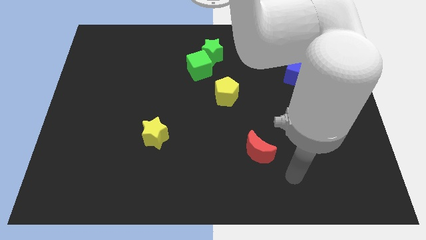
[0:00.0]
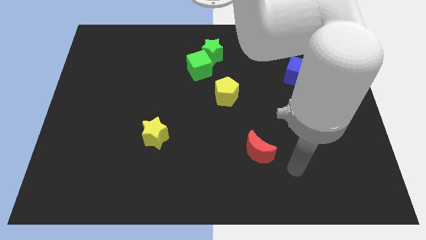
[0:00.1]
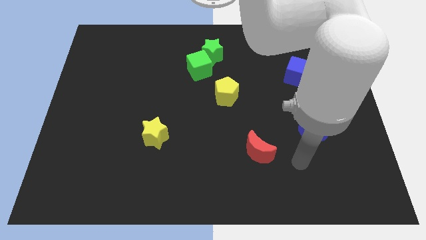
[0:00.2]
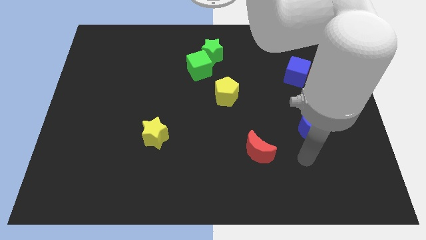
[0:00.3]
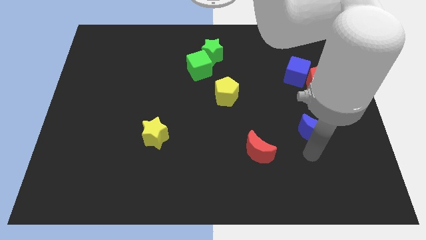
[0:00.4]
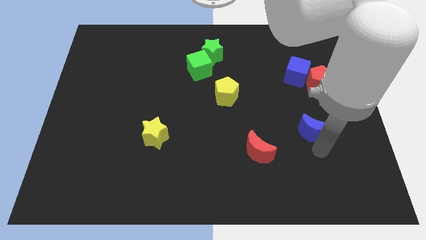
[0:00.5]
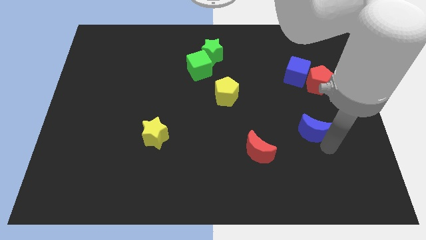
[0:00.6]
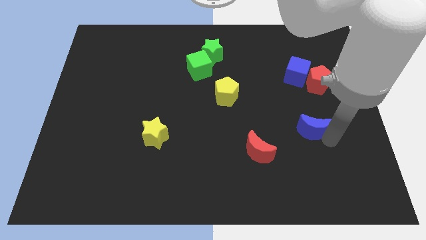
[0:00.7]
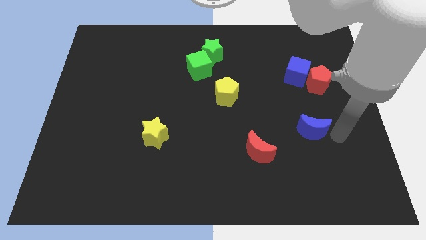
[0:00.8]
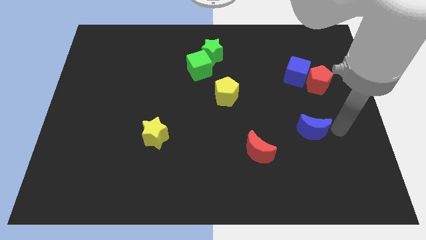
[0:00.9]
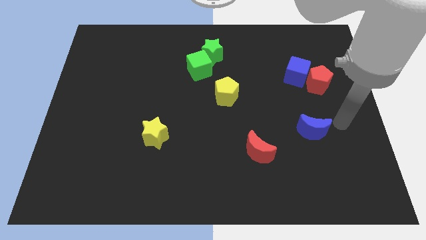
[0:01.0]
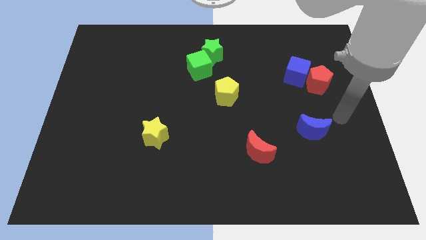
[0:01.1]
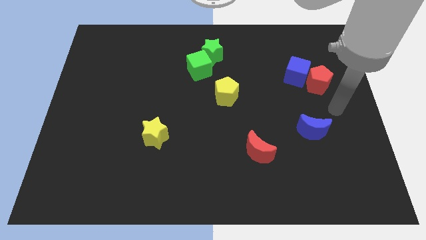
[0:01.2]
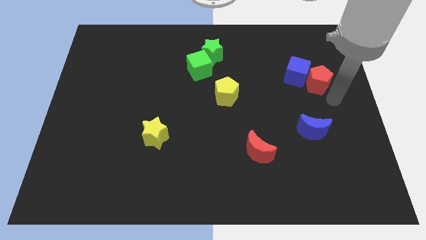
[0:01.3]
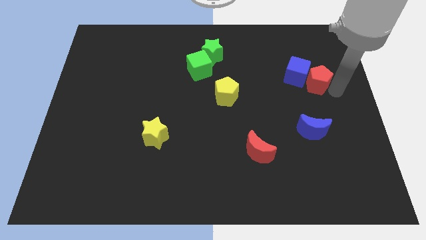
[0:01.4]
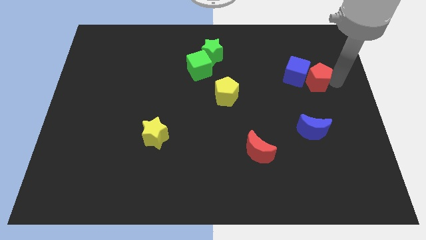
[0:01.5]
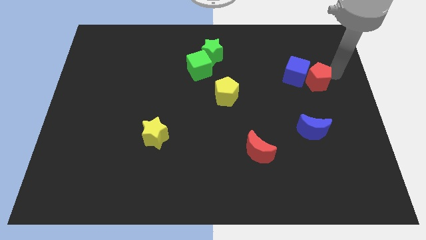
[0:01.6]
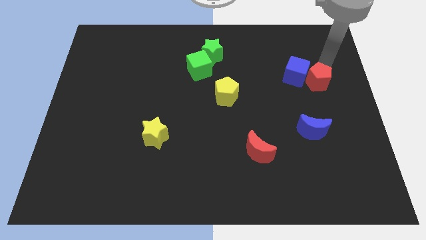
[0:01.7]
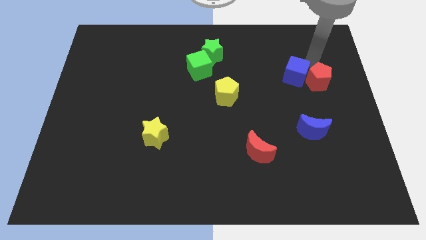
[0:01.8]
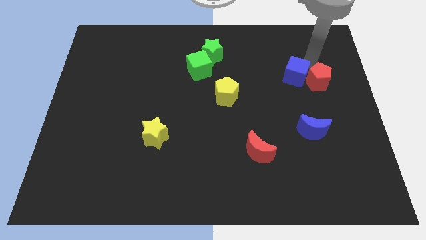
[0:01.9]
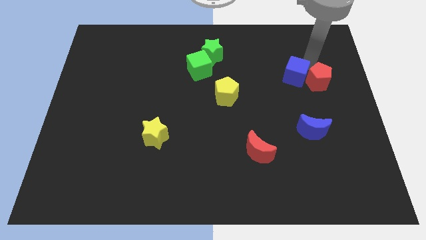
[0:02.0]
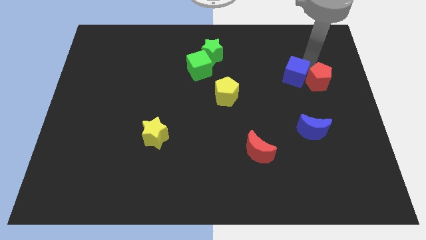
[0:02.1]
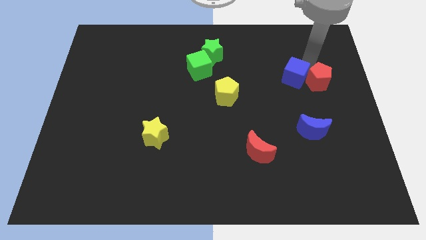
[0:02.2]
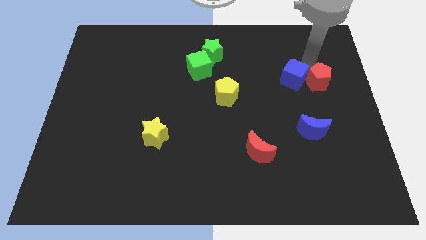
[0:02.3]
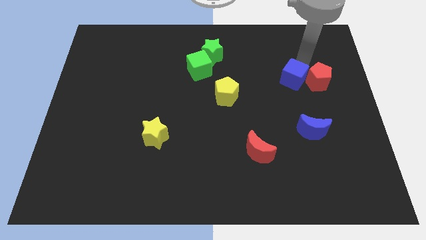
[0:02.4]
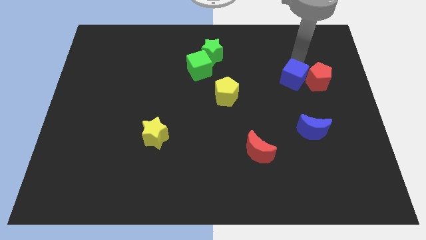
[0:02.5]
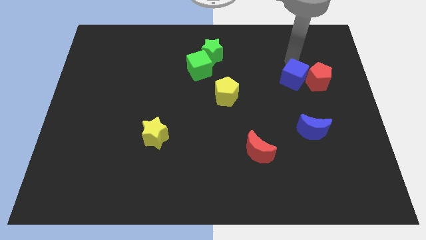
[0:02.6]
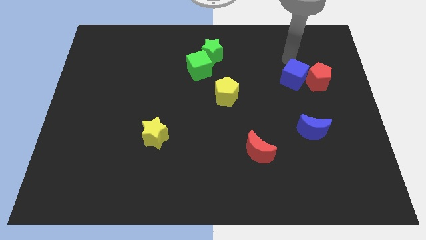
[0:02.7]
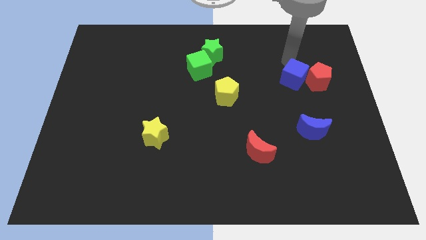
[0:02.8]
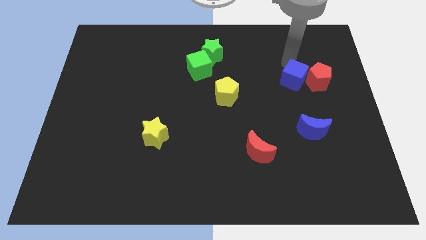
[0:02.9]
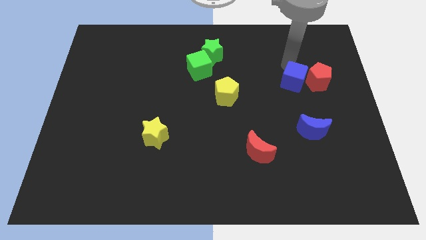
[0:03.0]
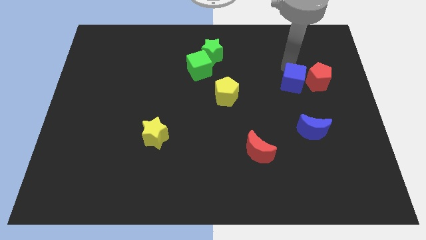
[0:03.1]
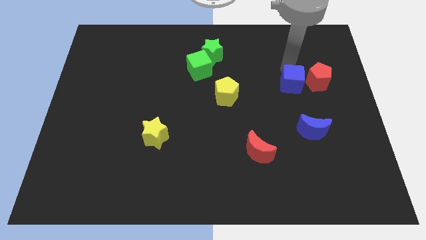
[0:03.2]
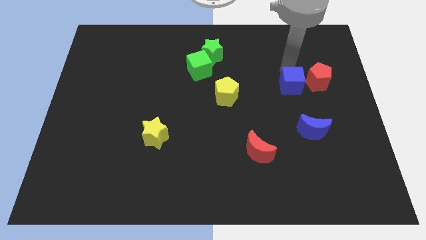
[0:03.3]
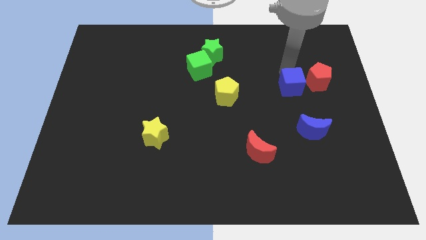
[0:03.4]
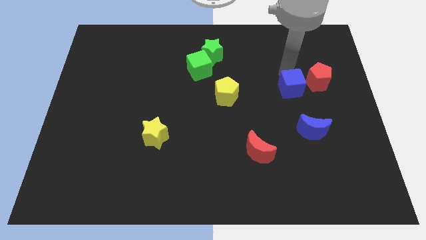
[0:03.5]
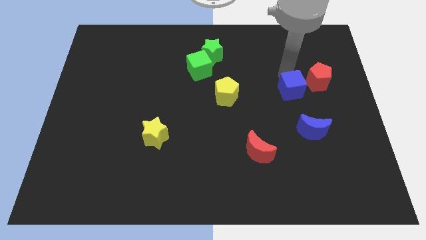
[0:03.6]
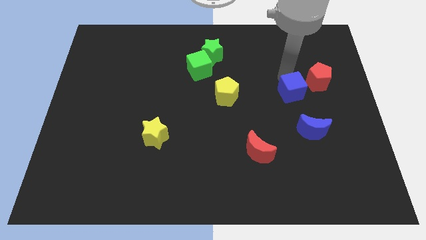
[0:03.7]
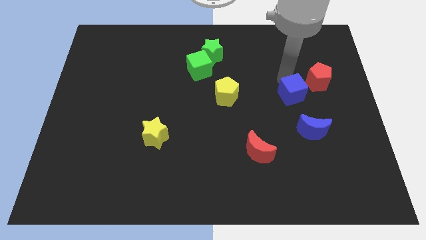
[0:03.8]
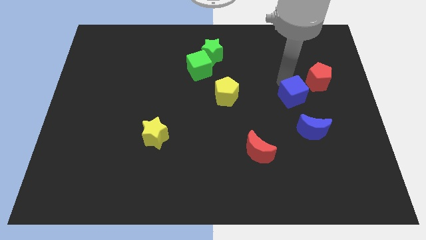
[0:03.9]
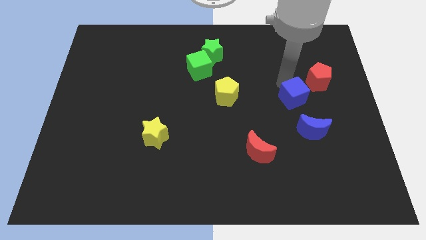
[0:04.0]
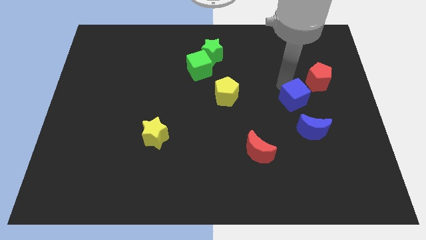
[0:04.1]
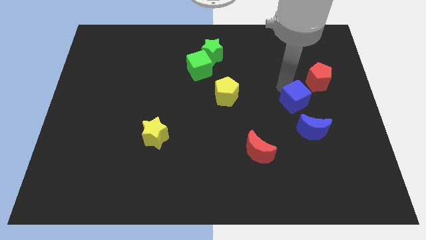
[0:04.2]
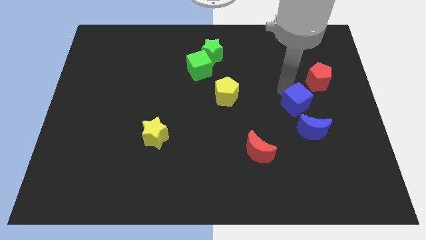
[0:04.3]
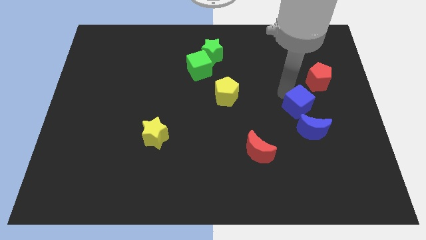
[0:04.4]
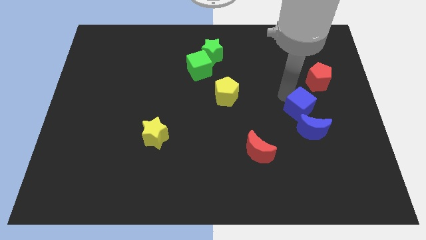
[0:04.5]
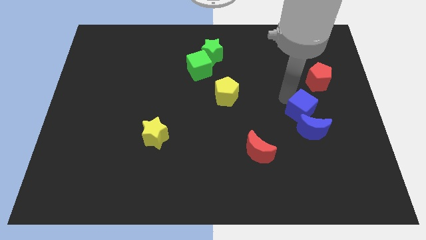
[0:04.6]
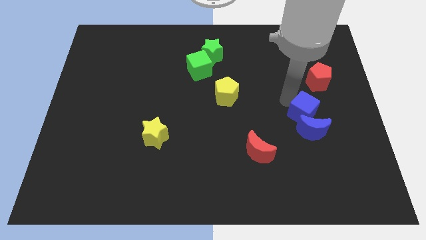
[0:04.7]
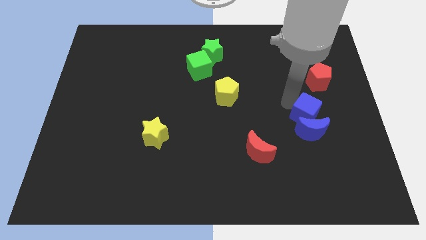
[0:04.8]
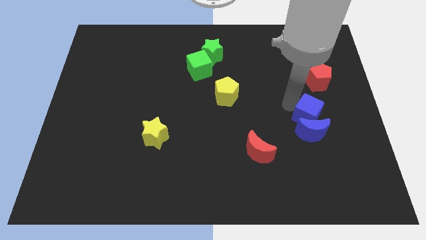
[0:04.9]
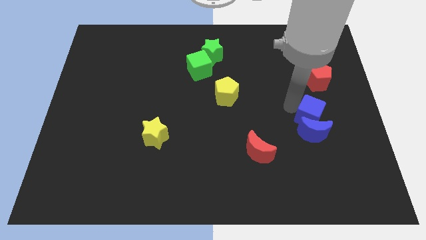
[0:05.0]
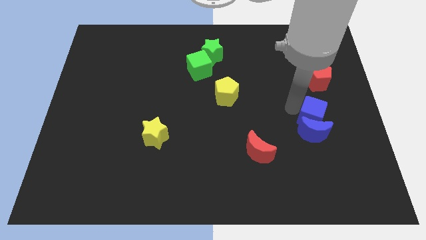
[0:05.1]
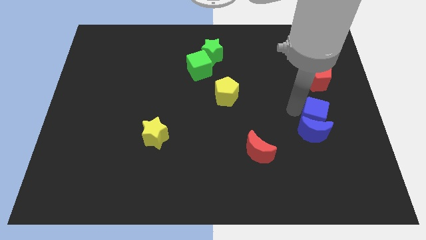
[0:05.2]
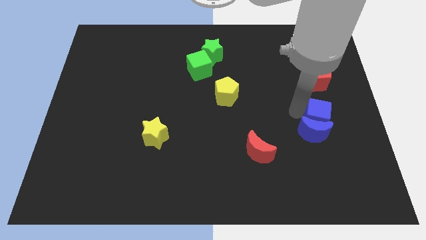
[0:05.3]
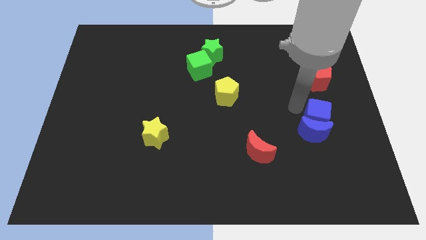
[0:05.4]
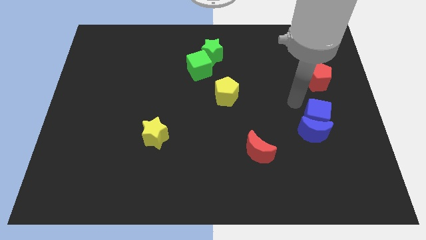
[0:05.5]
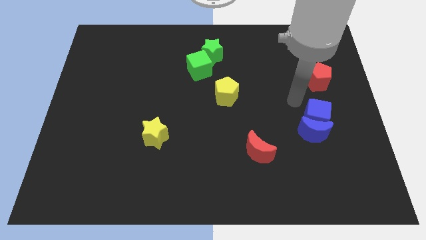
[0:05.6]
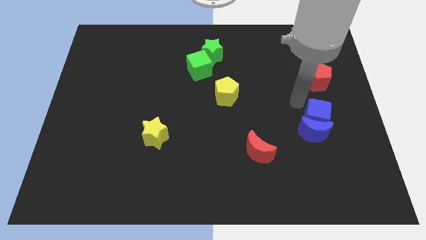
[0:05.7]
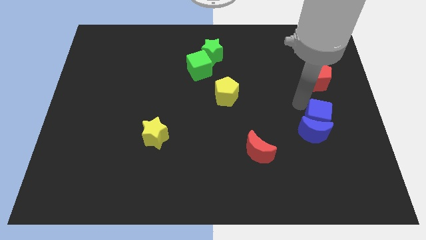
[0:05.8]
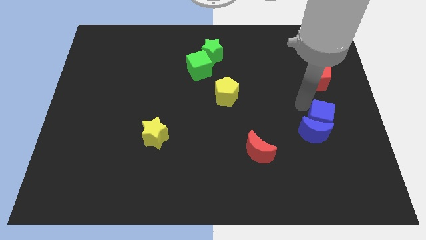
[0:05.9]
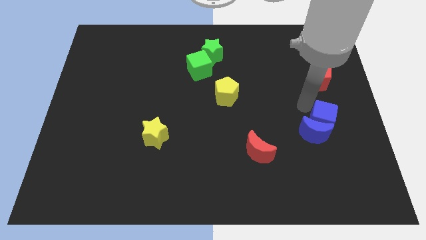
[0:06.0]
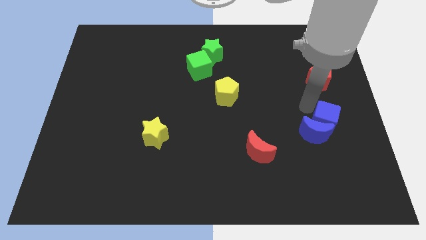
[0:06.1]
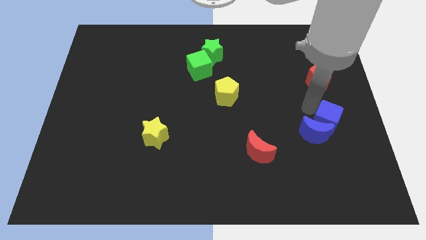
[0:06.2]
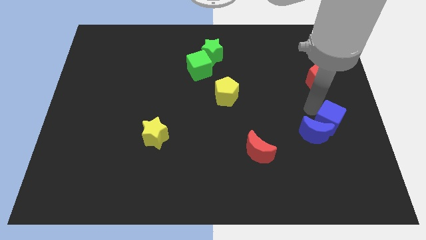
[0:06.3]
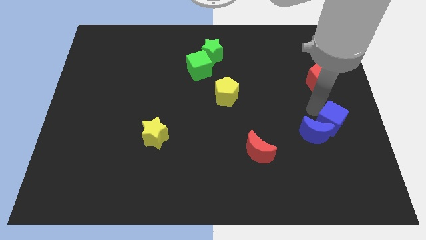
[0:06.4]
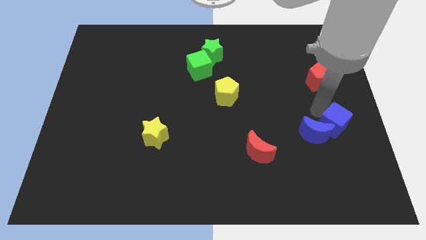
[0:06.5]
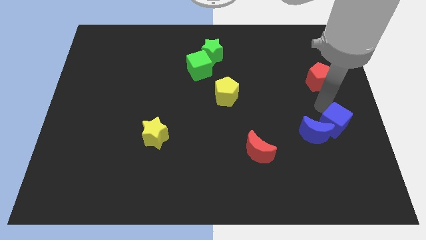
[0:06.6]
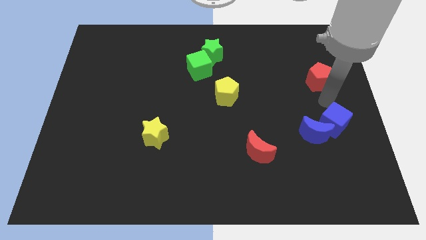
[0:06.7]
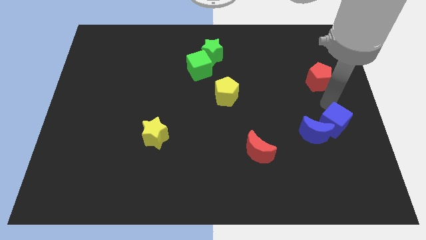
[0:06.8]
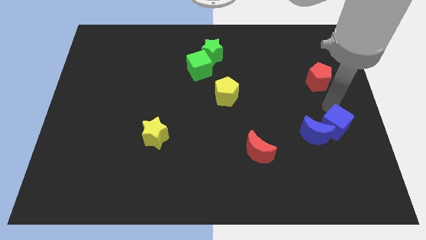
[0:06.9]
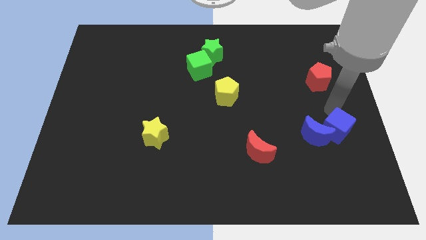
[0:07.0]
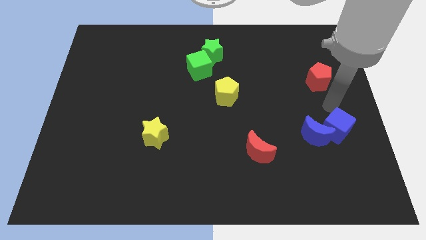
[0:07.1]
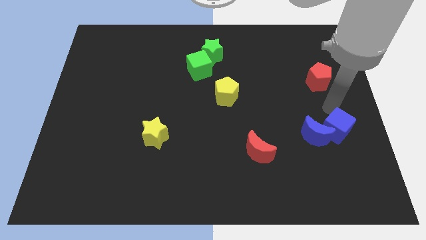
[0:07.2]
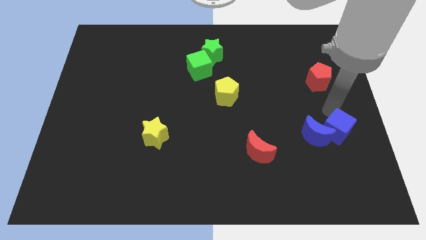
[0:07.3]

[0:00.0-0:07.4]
move the blue cube to the bottom right of the blue moon
